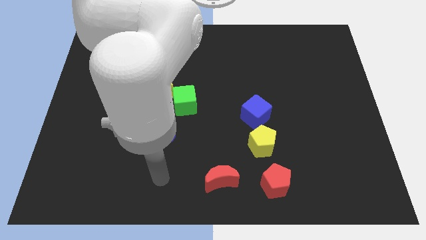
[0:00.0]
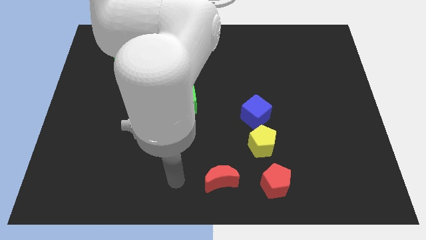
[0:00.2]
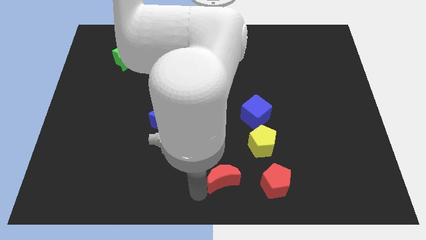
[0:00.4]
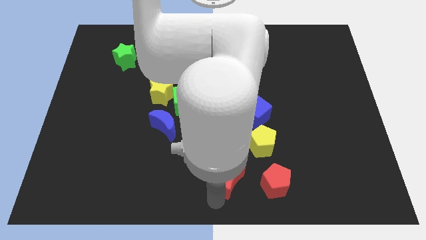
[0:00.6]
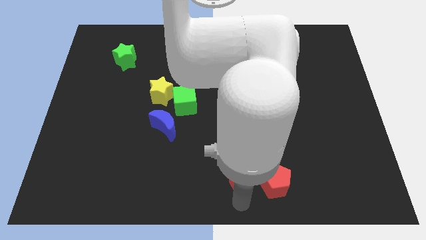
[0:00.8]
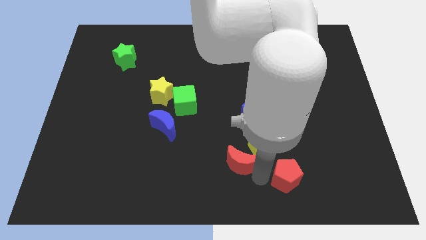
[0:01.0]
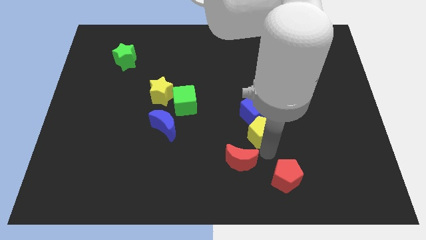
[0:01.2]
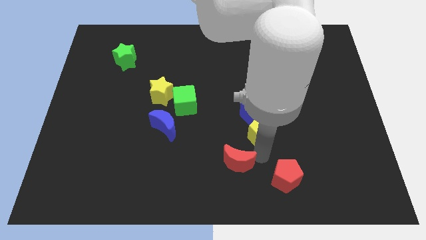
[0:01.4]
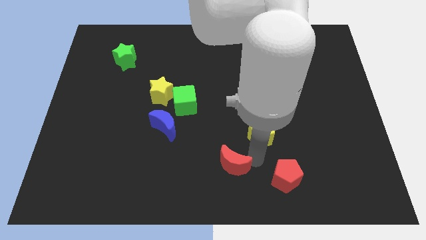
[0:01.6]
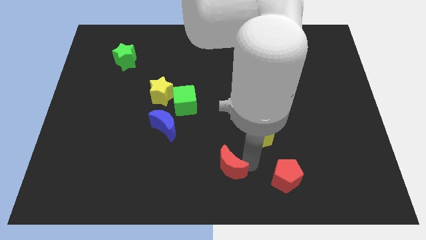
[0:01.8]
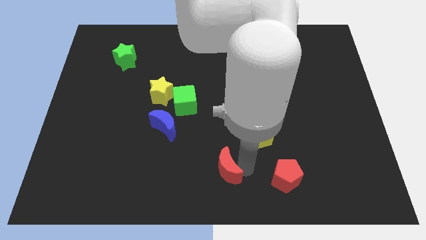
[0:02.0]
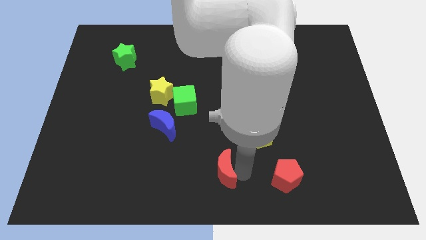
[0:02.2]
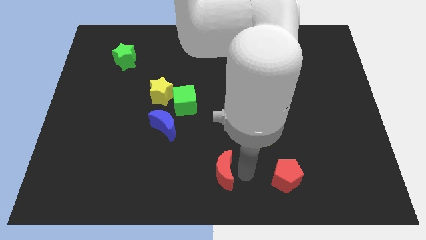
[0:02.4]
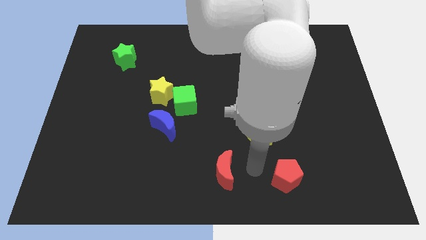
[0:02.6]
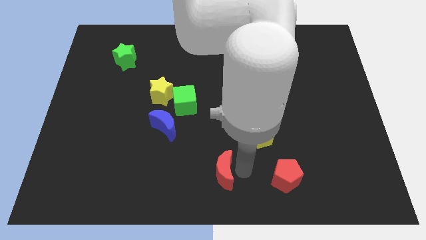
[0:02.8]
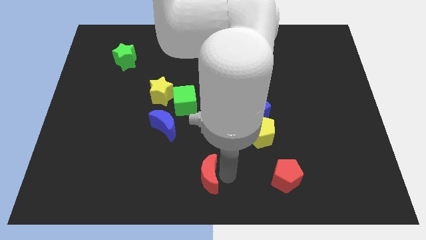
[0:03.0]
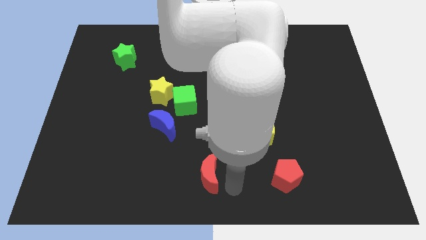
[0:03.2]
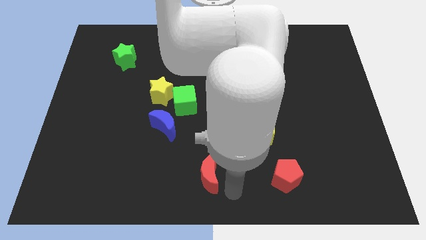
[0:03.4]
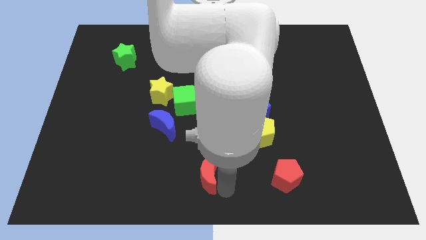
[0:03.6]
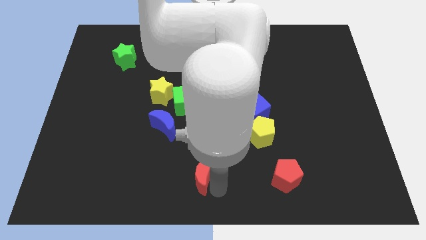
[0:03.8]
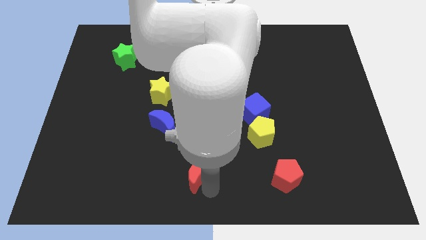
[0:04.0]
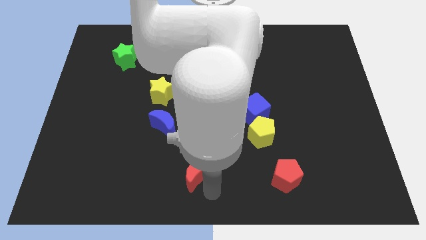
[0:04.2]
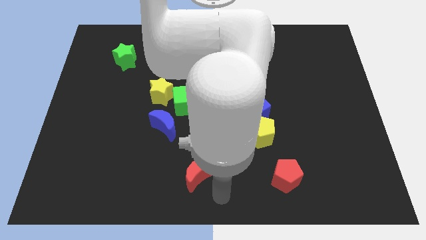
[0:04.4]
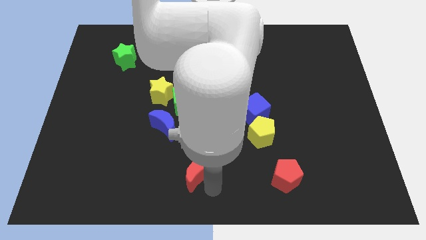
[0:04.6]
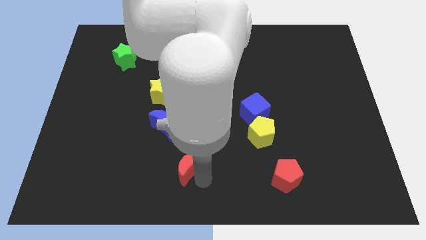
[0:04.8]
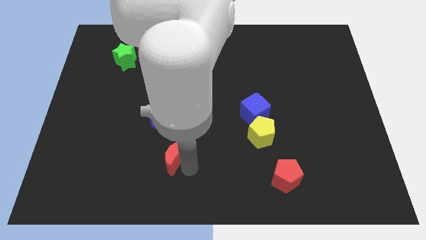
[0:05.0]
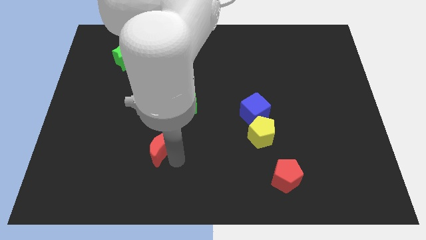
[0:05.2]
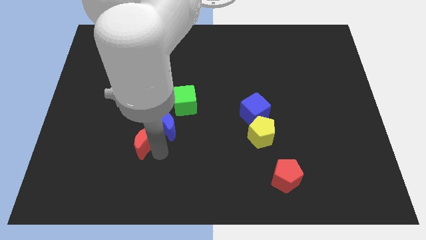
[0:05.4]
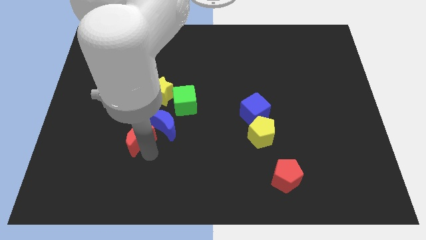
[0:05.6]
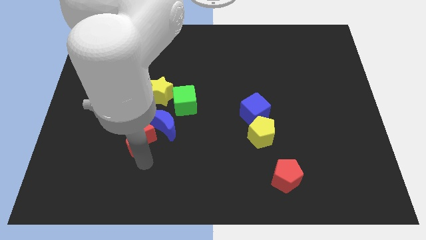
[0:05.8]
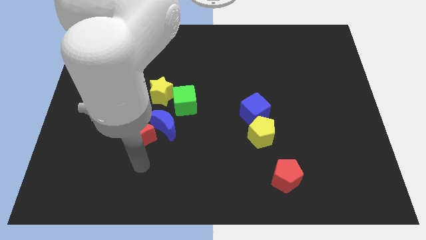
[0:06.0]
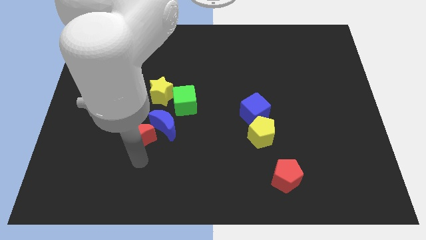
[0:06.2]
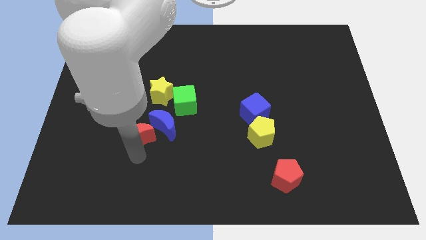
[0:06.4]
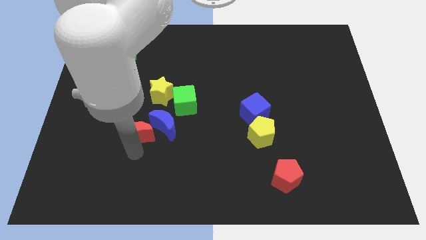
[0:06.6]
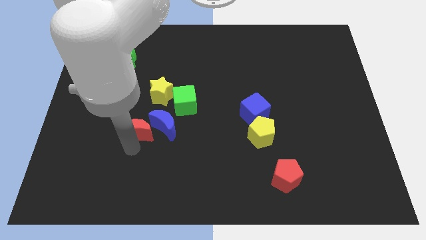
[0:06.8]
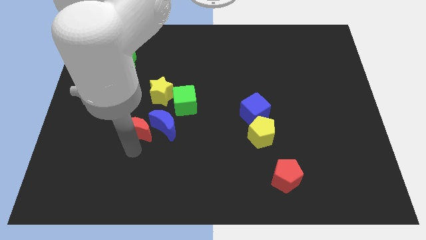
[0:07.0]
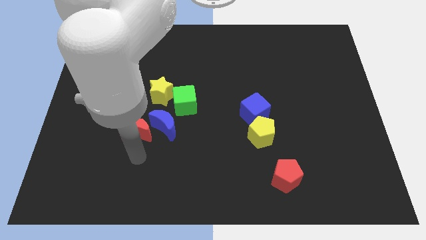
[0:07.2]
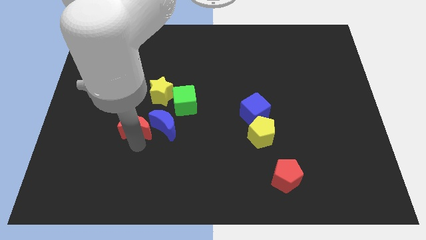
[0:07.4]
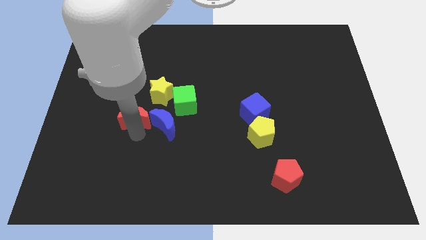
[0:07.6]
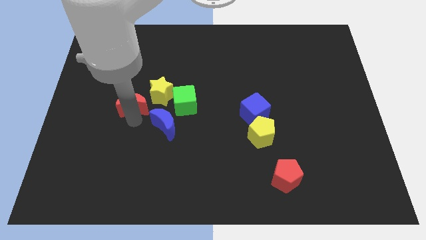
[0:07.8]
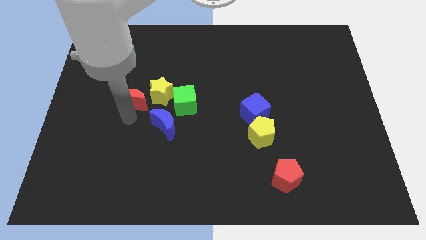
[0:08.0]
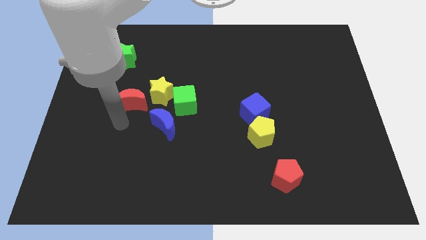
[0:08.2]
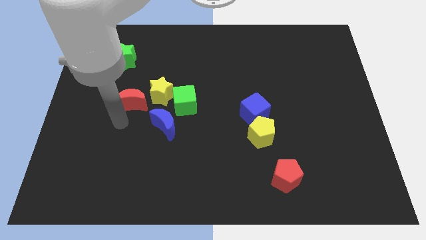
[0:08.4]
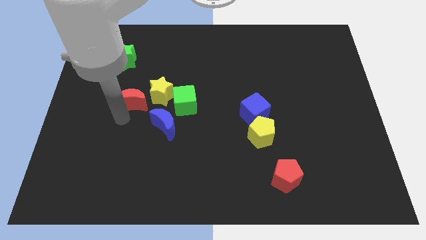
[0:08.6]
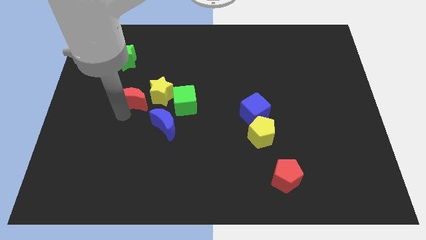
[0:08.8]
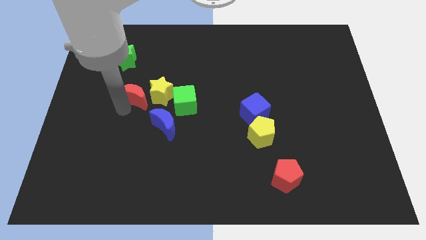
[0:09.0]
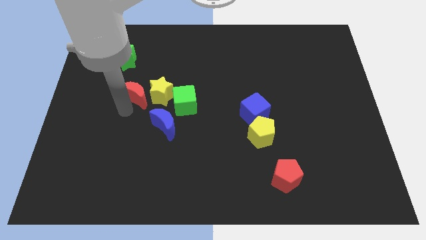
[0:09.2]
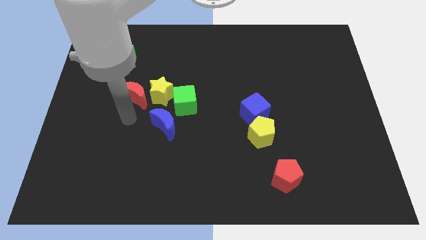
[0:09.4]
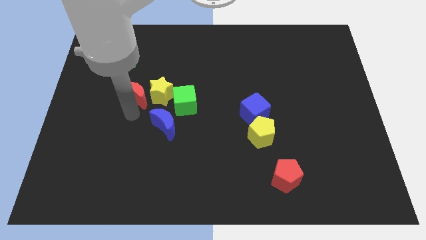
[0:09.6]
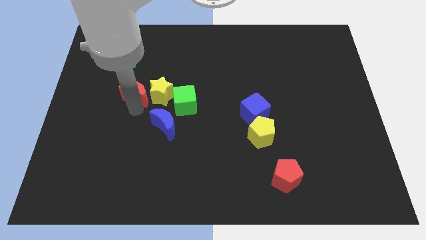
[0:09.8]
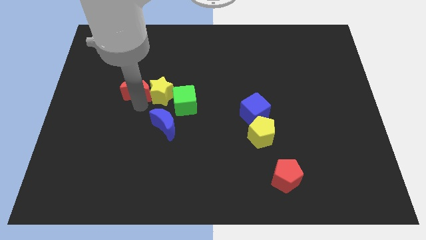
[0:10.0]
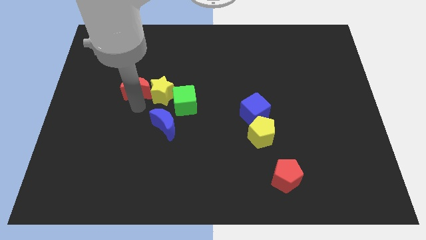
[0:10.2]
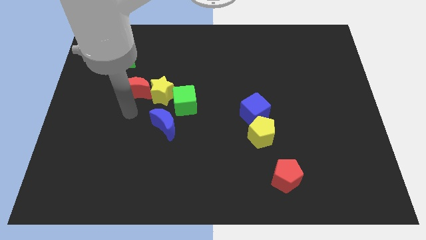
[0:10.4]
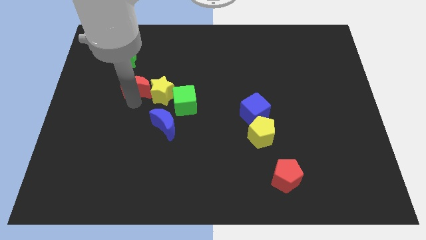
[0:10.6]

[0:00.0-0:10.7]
push the red moon to the bottom right of the green star

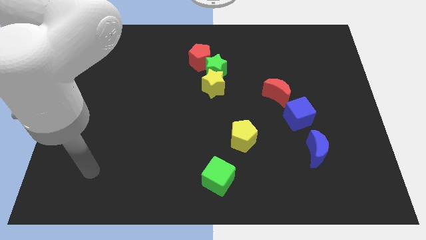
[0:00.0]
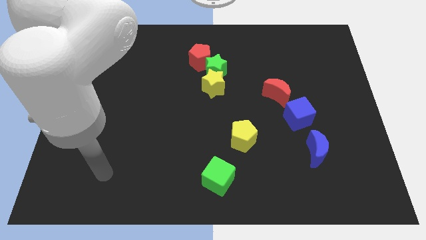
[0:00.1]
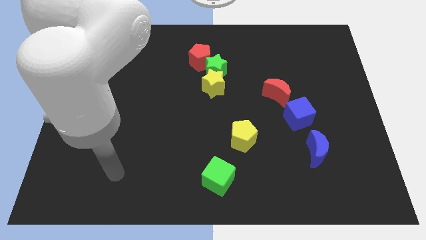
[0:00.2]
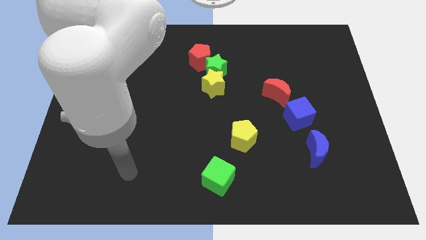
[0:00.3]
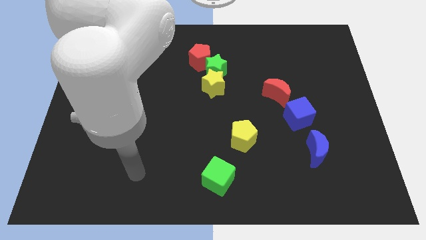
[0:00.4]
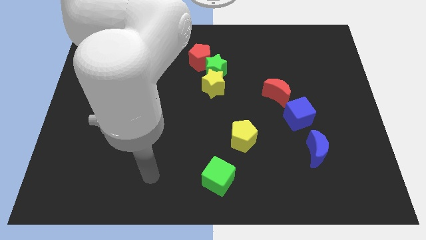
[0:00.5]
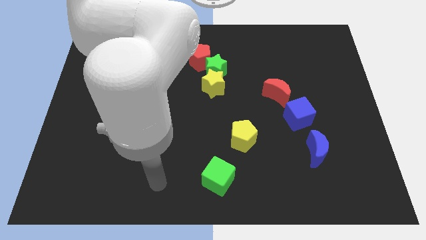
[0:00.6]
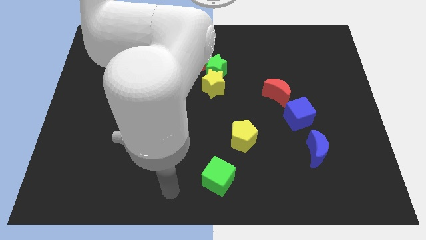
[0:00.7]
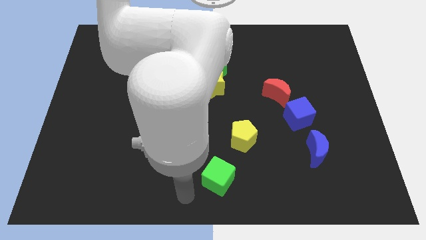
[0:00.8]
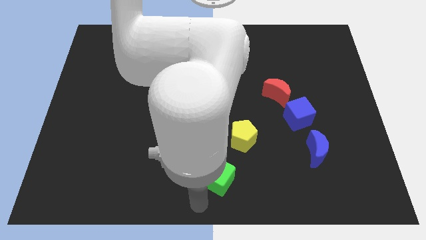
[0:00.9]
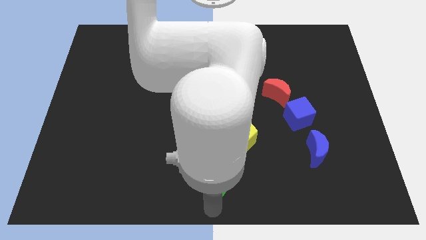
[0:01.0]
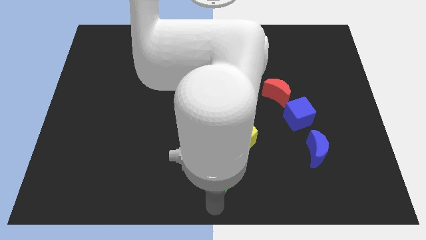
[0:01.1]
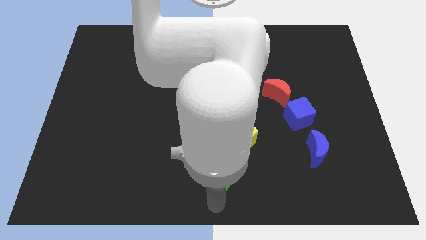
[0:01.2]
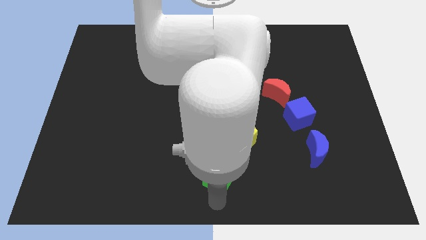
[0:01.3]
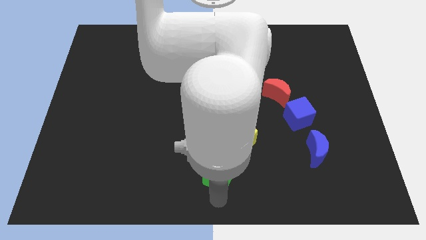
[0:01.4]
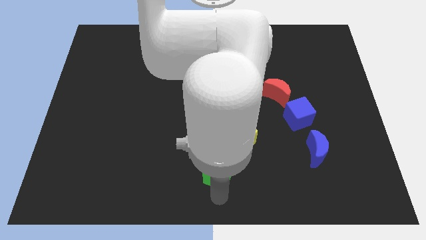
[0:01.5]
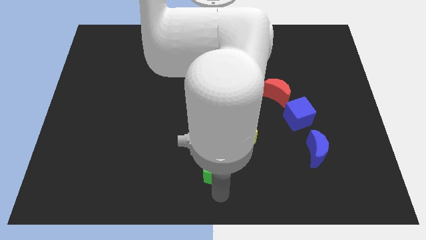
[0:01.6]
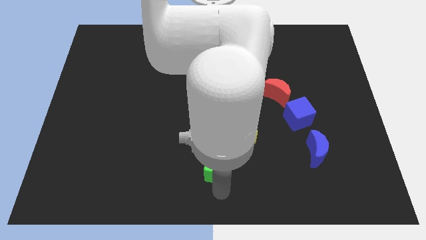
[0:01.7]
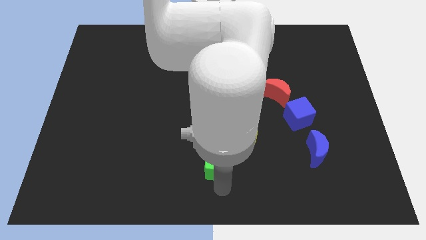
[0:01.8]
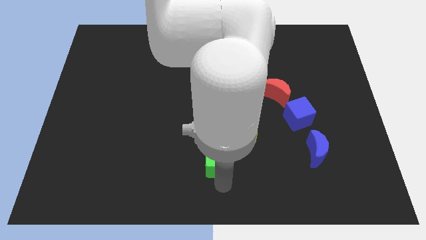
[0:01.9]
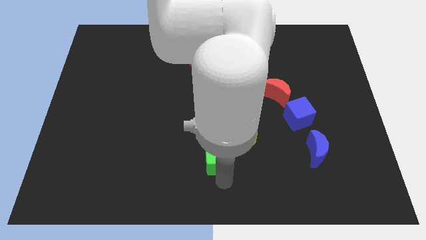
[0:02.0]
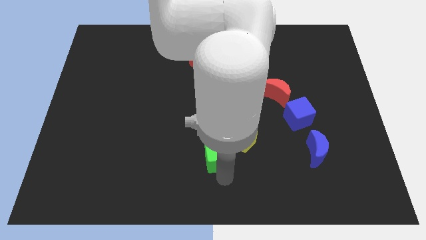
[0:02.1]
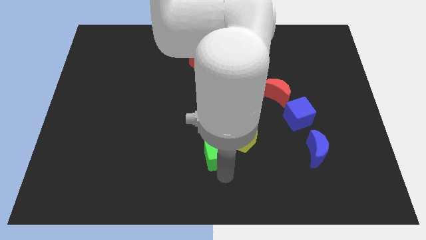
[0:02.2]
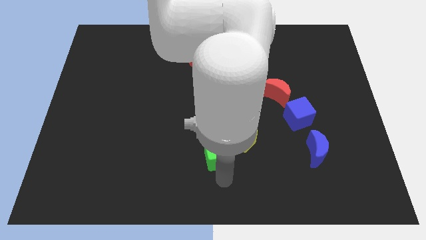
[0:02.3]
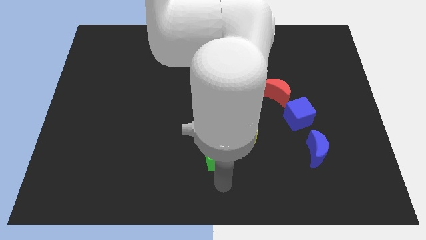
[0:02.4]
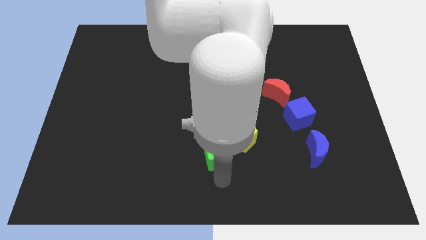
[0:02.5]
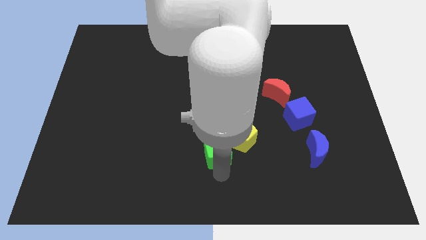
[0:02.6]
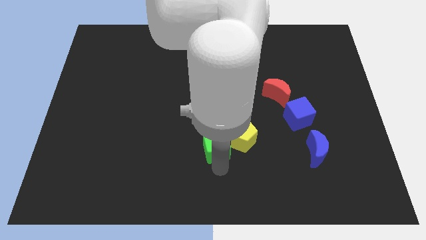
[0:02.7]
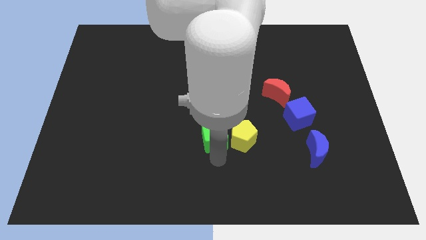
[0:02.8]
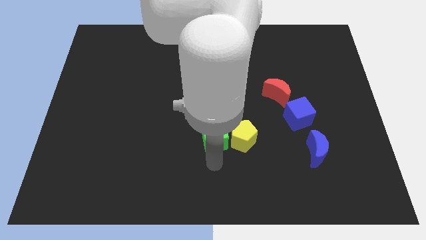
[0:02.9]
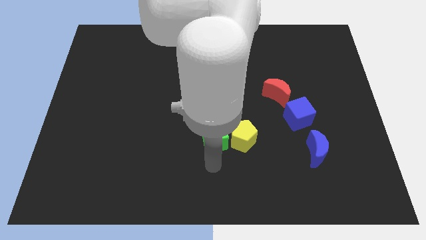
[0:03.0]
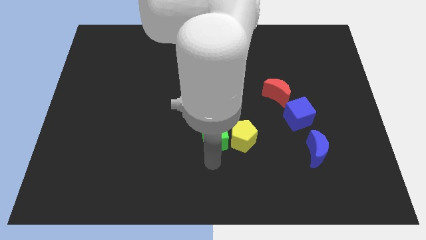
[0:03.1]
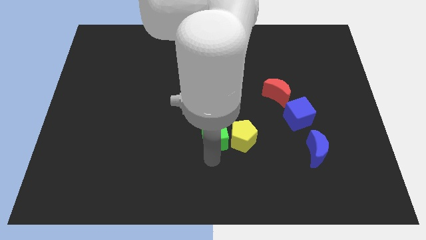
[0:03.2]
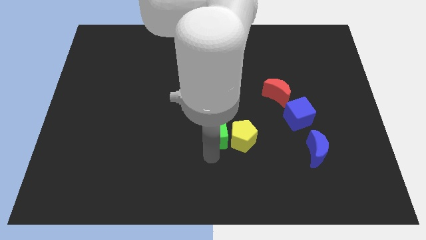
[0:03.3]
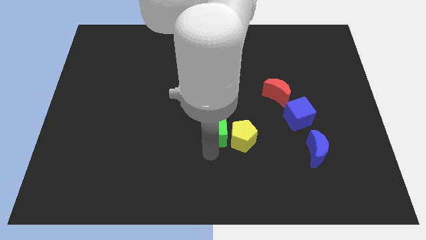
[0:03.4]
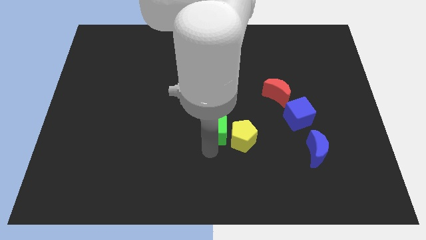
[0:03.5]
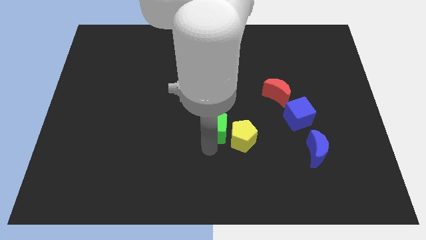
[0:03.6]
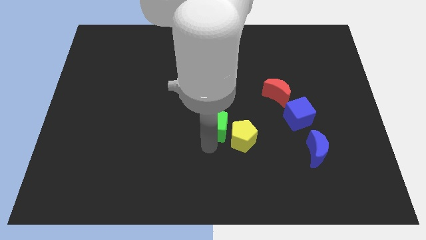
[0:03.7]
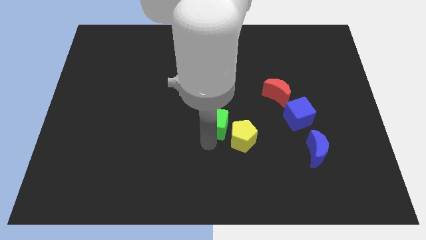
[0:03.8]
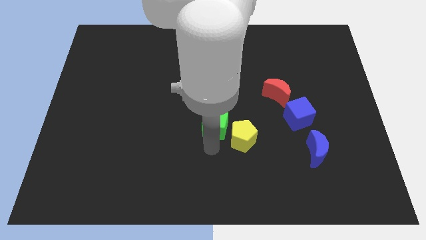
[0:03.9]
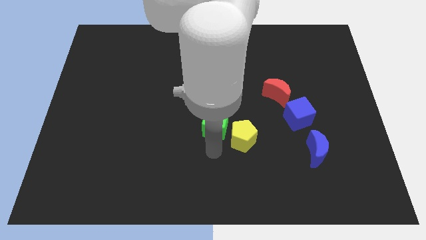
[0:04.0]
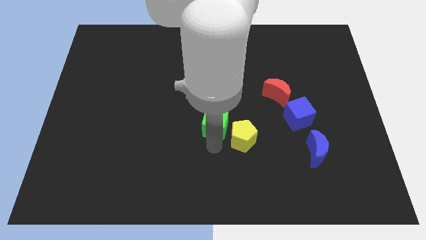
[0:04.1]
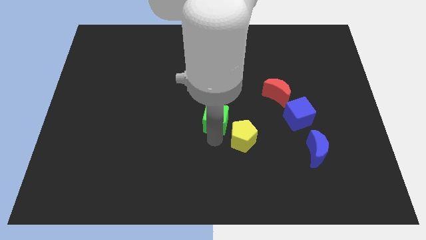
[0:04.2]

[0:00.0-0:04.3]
put the green cube to the bottom side of the green star
